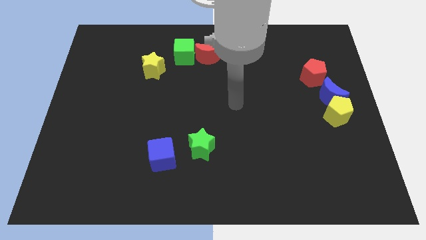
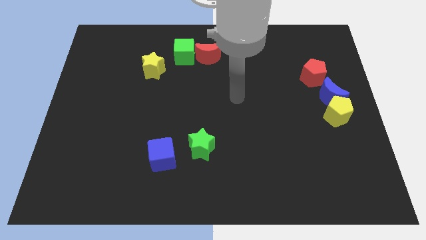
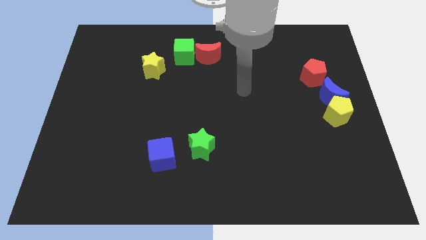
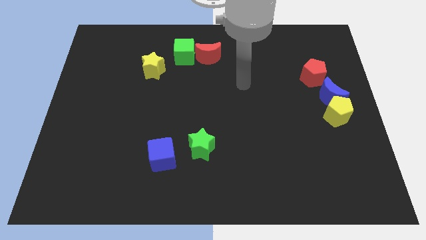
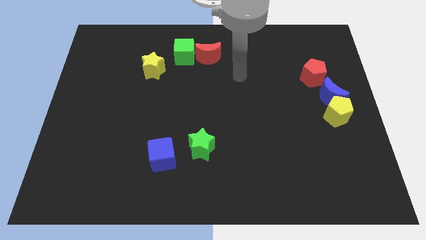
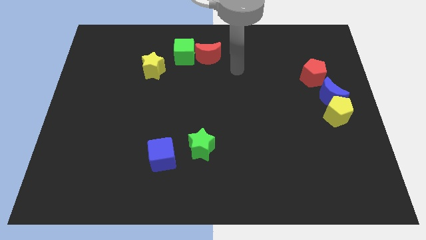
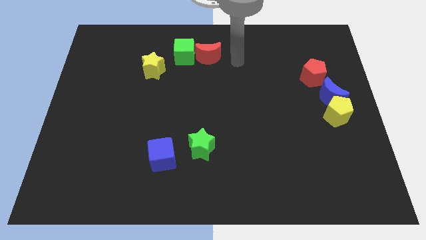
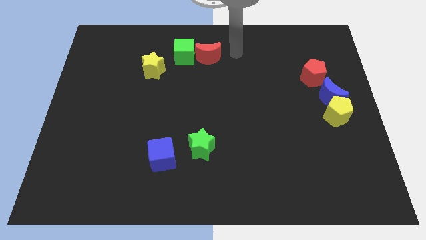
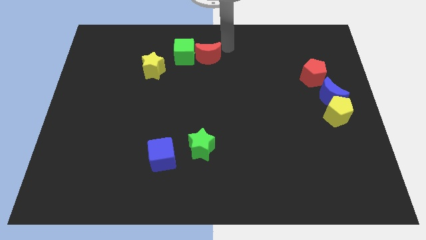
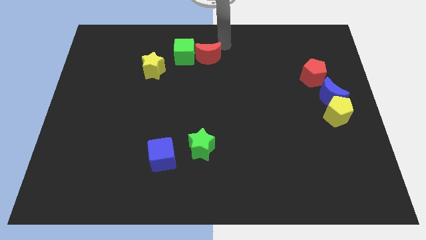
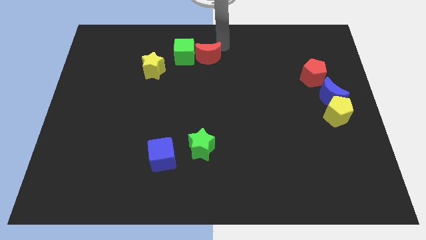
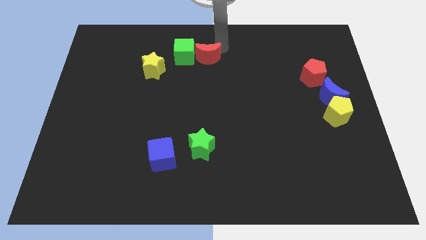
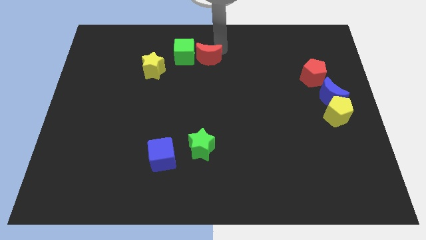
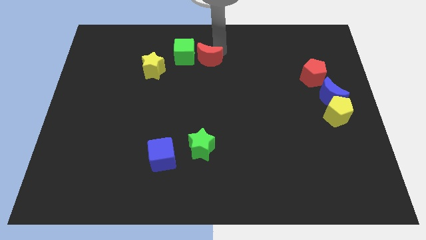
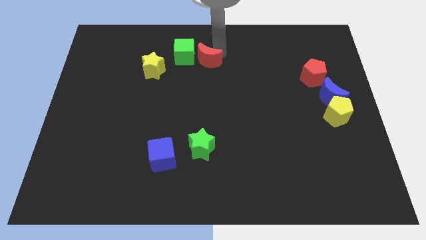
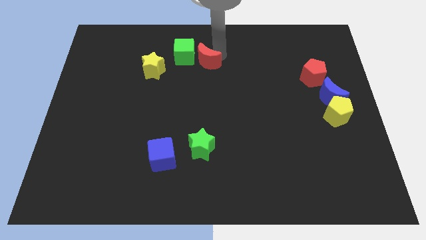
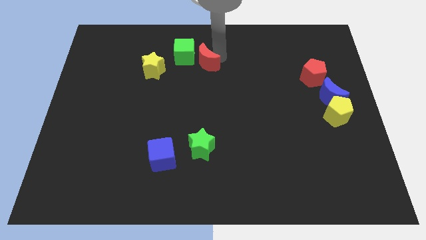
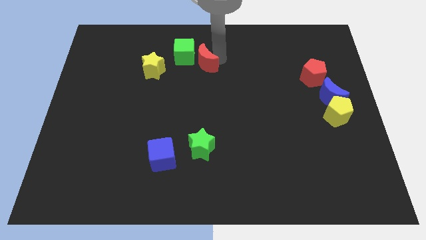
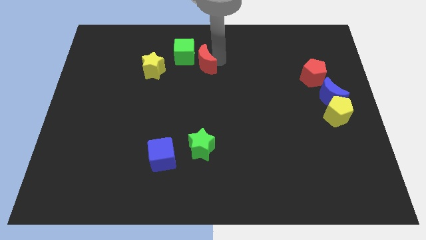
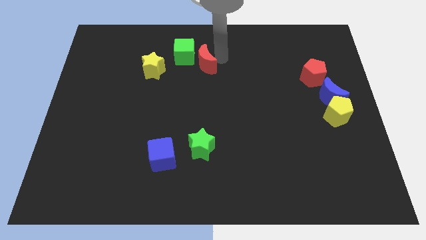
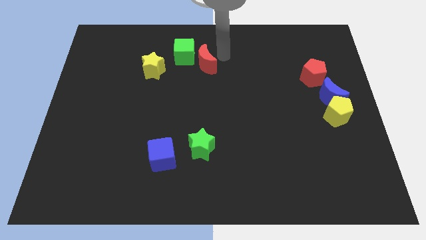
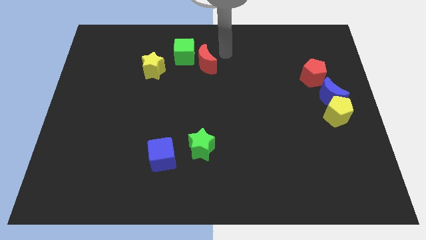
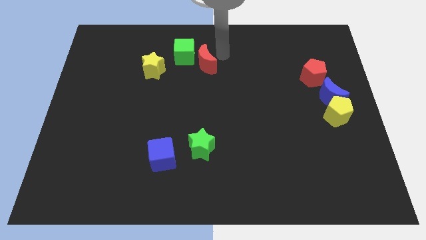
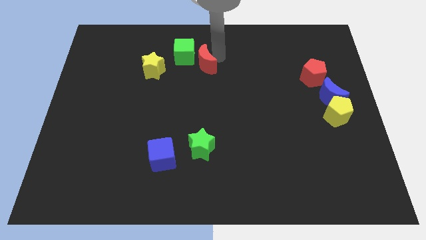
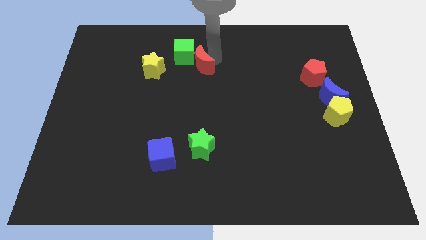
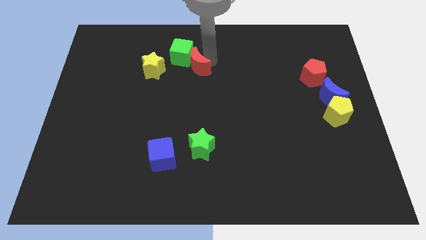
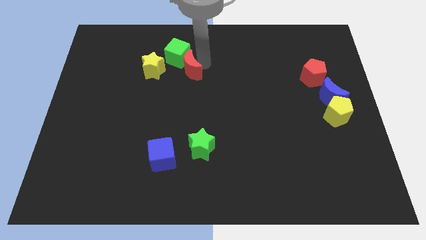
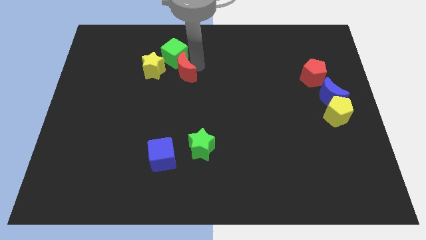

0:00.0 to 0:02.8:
push the red moon diagonally down and to the left a little bit

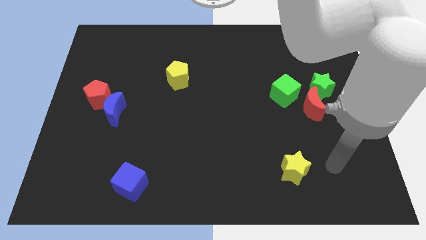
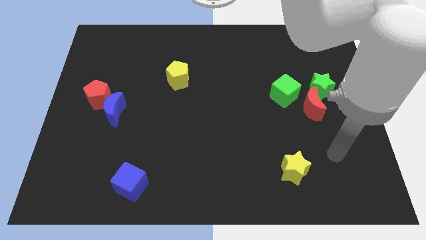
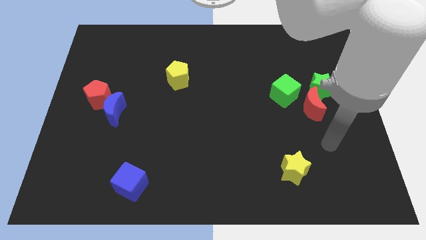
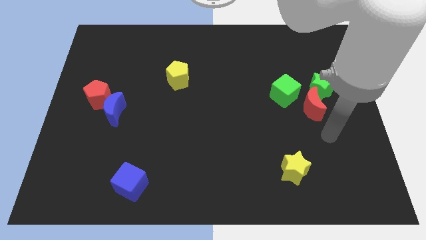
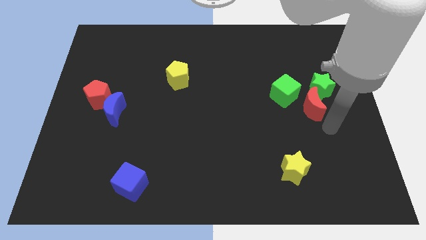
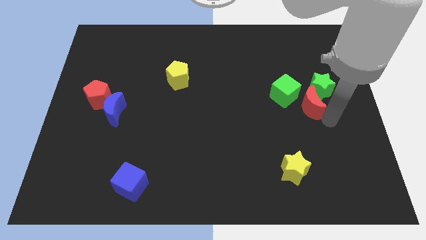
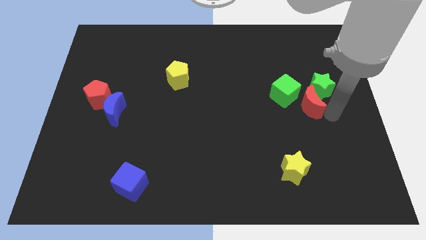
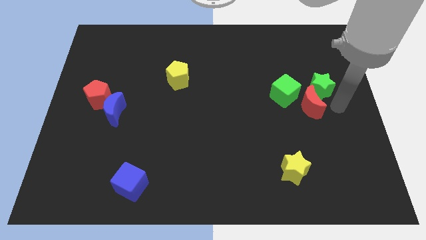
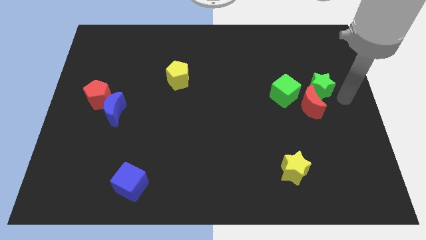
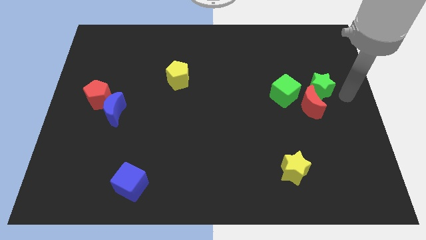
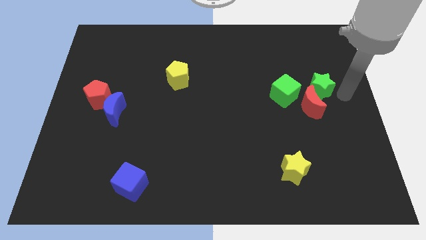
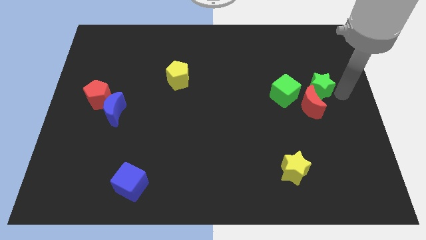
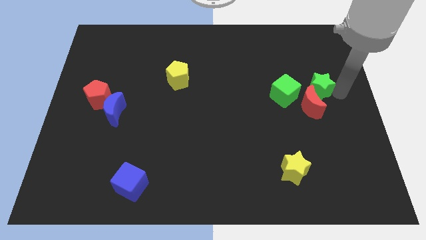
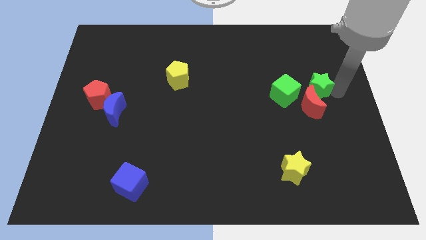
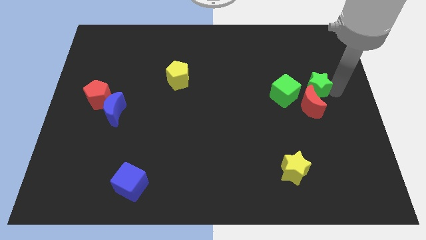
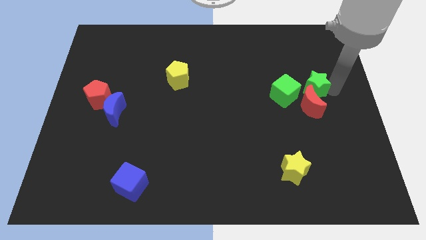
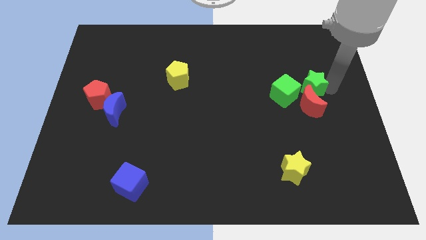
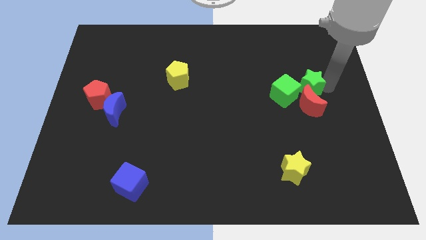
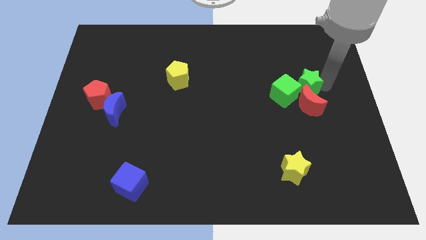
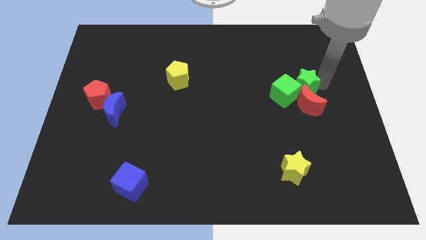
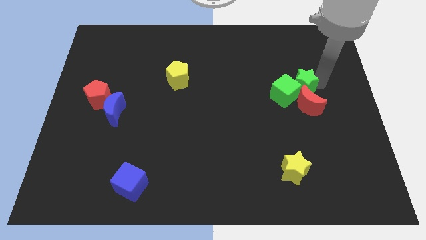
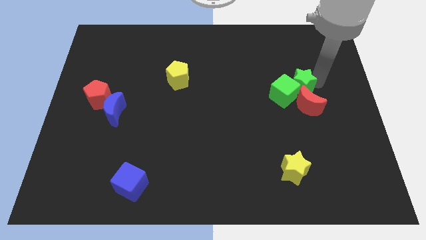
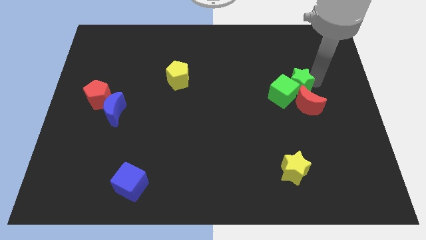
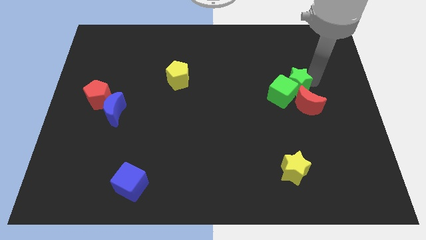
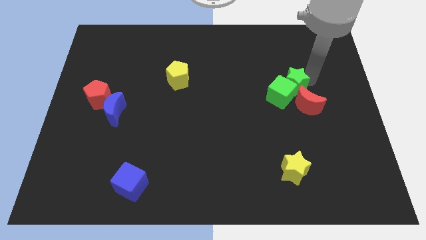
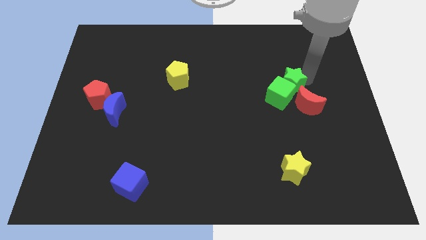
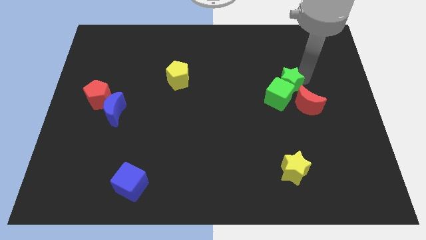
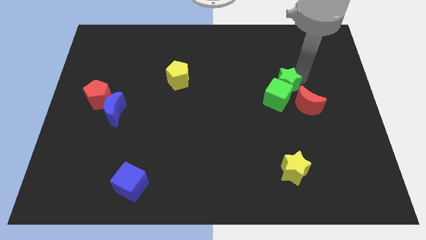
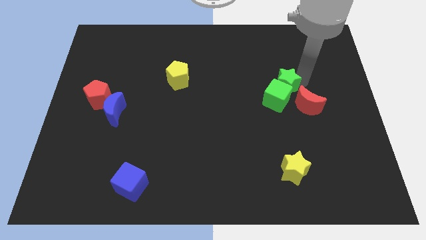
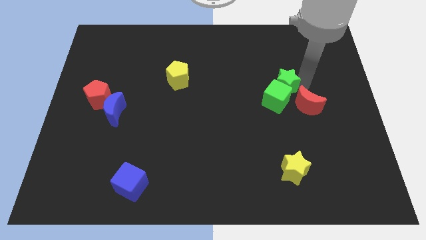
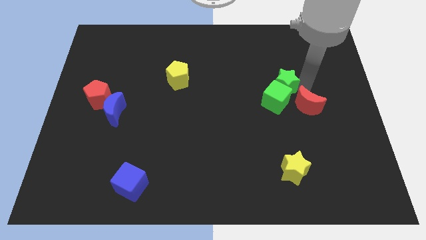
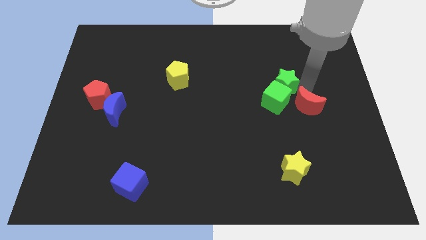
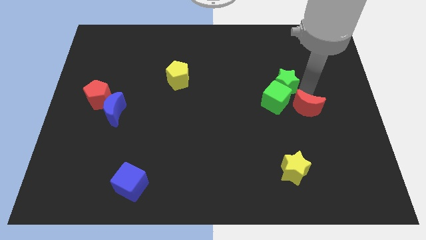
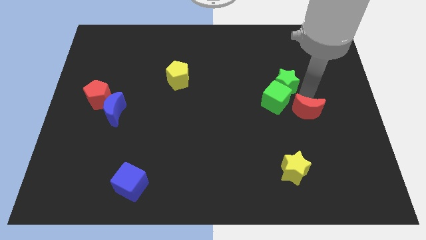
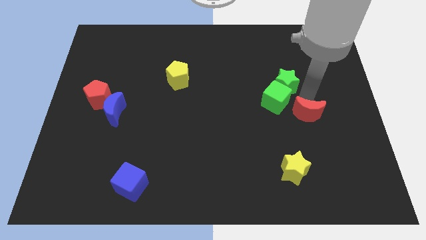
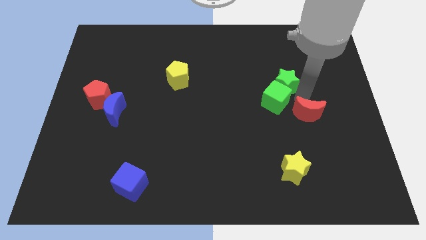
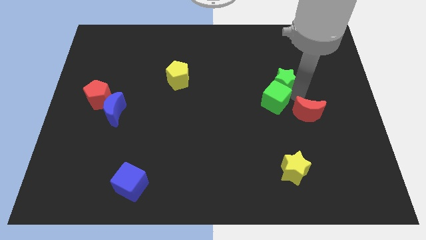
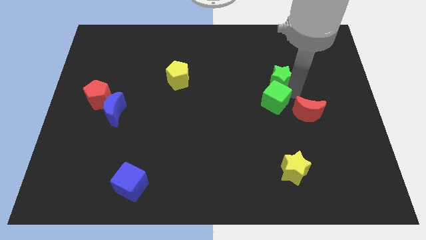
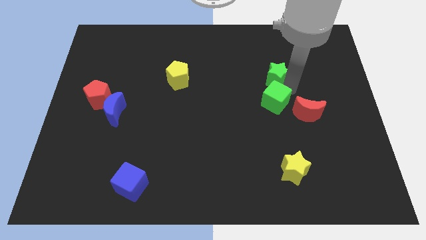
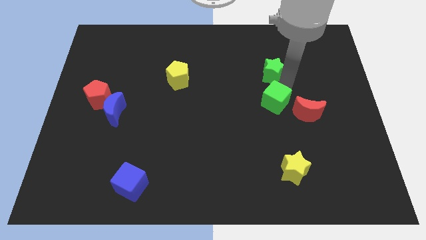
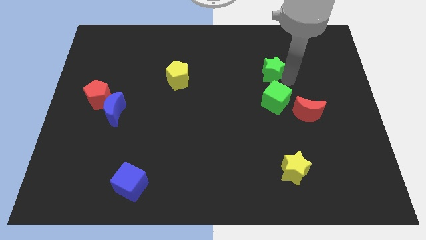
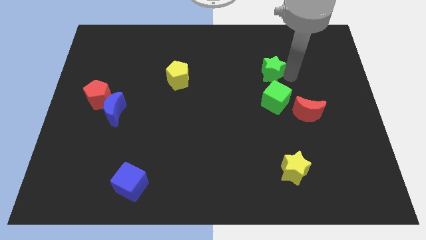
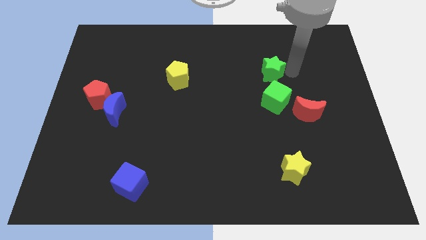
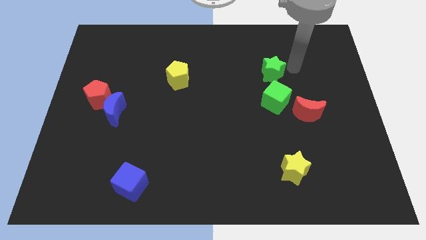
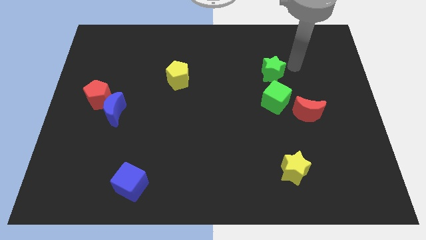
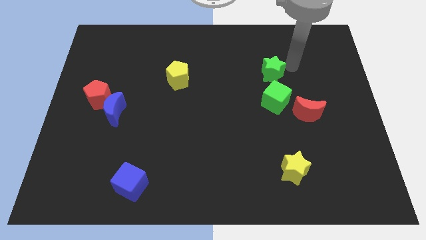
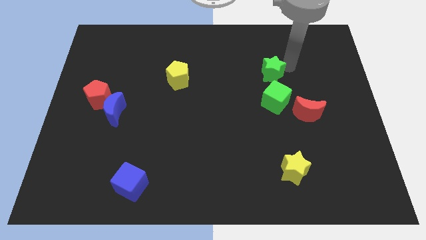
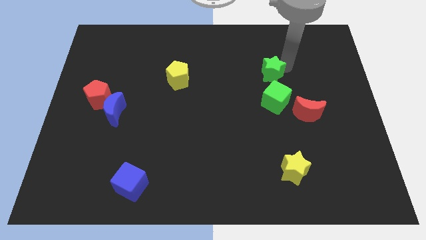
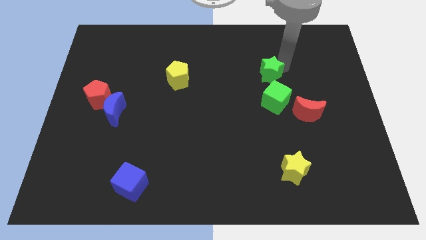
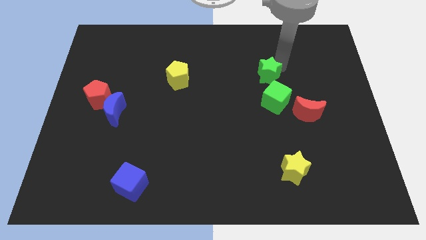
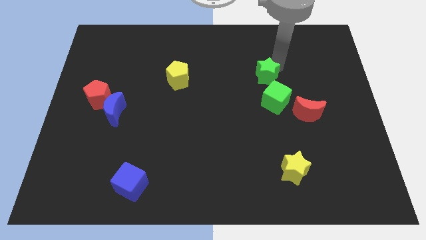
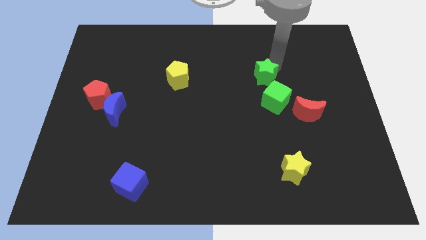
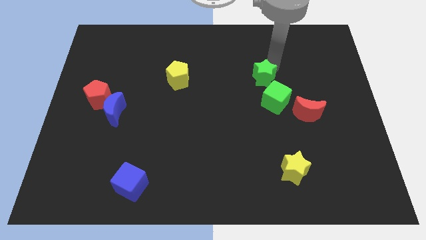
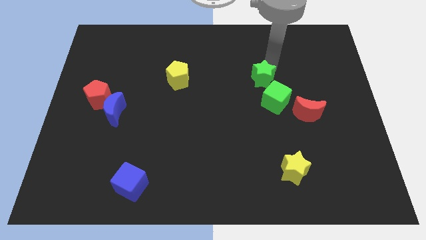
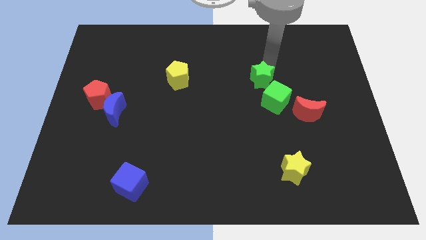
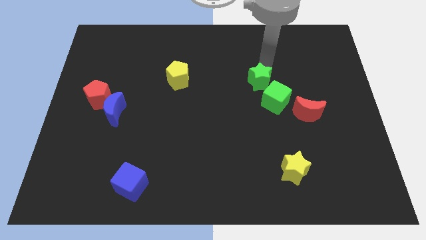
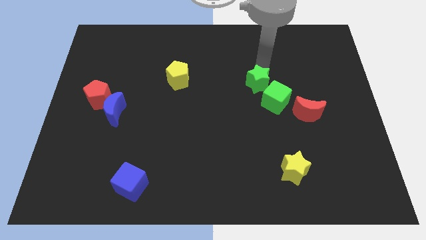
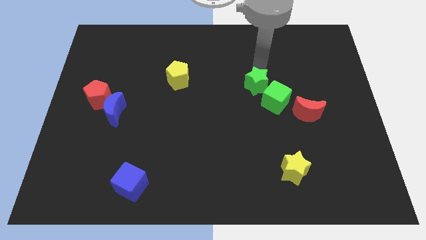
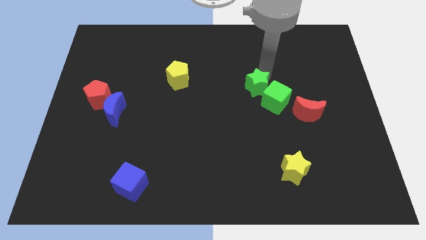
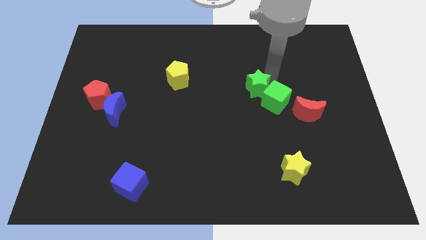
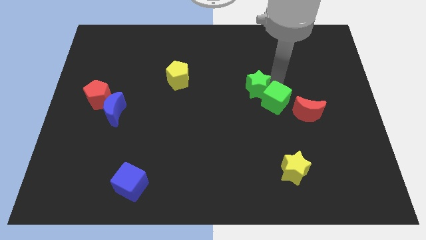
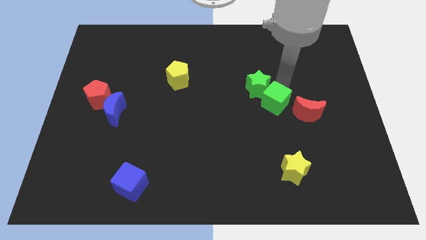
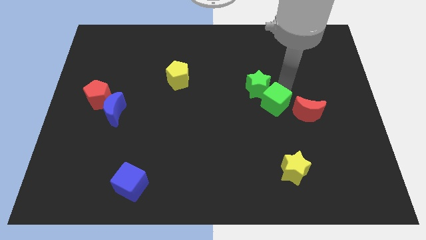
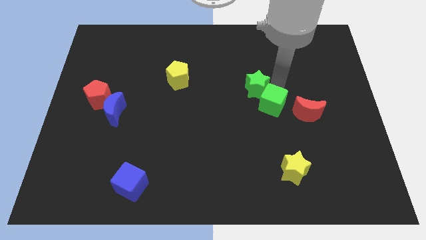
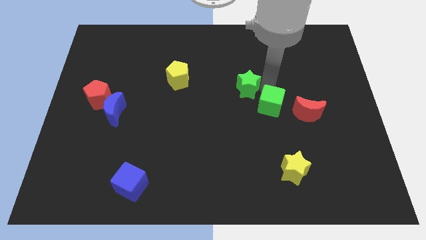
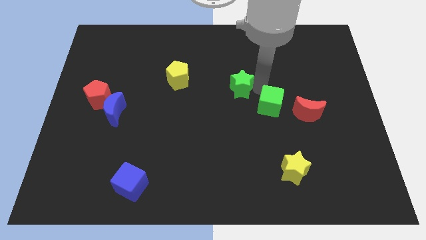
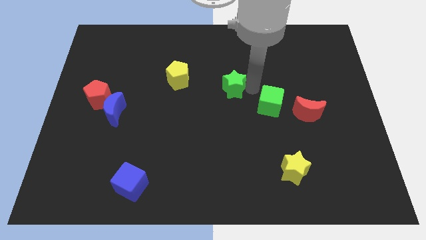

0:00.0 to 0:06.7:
move the green star left
